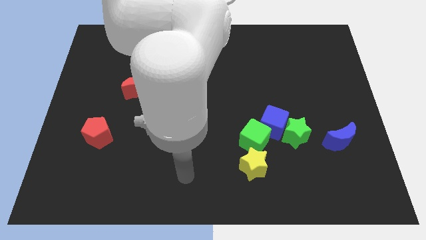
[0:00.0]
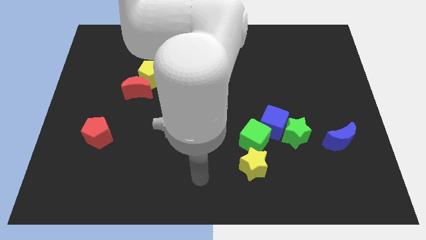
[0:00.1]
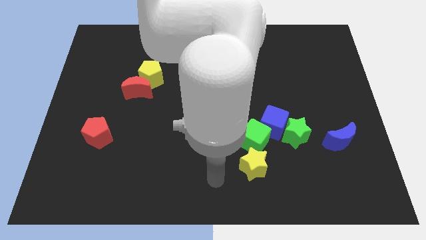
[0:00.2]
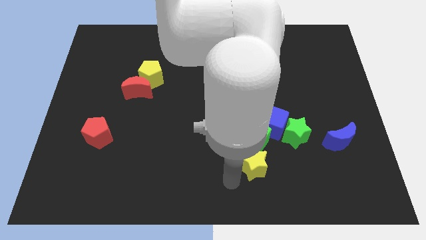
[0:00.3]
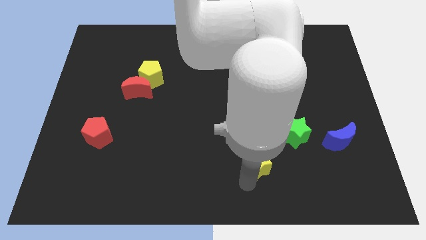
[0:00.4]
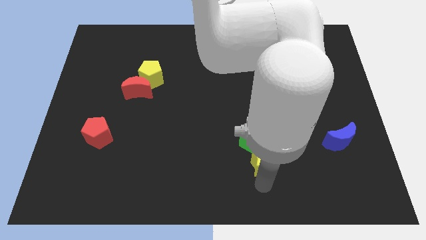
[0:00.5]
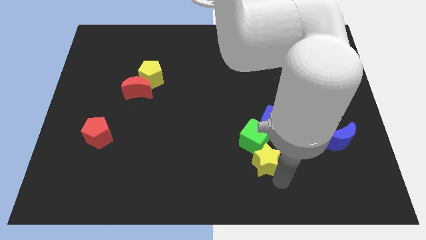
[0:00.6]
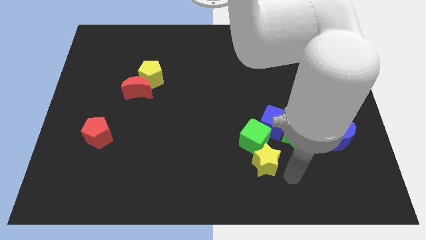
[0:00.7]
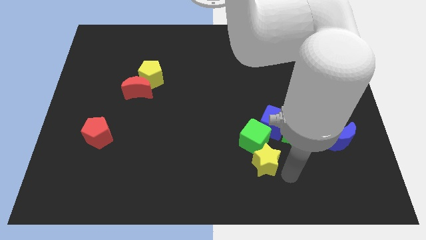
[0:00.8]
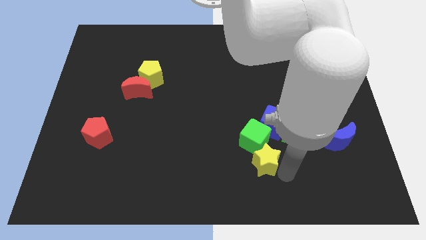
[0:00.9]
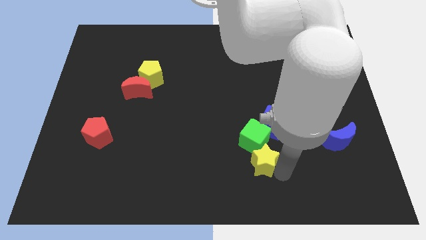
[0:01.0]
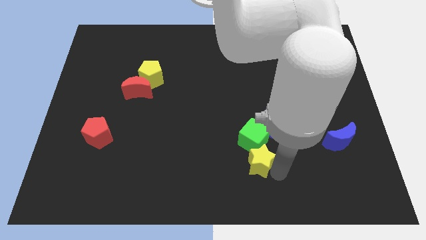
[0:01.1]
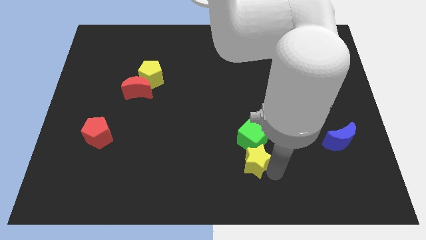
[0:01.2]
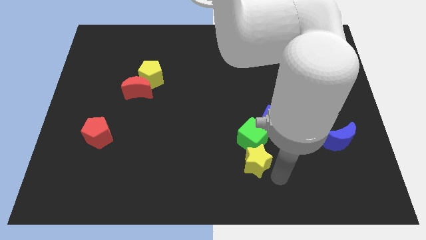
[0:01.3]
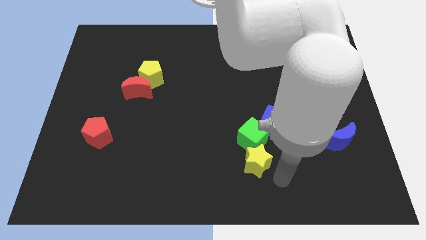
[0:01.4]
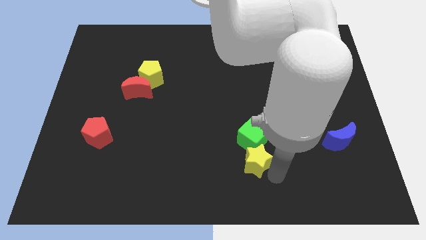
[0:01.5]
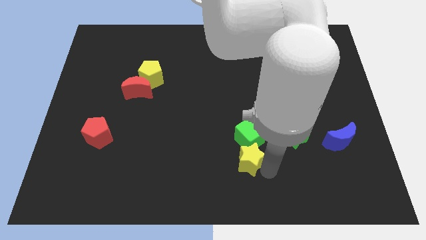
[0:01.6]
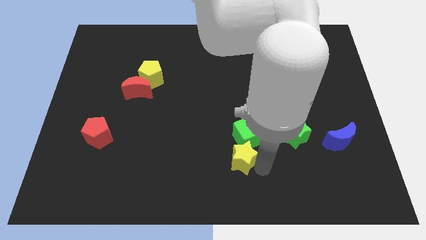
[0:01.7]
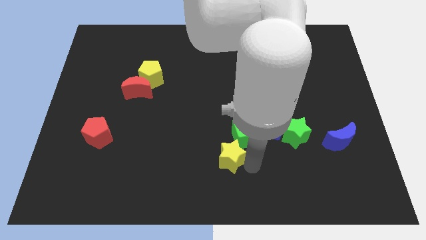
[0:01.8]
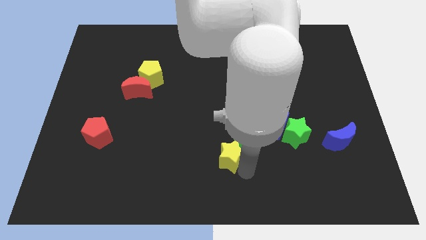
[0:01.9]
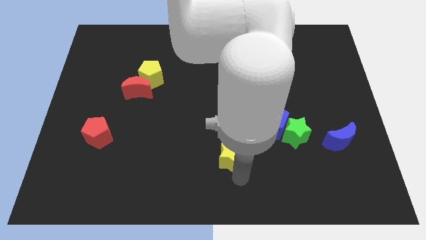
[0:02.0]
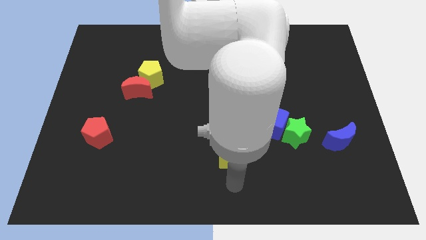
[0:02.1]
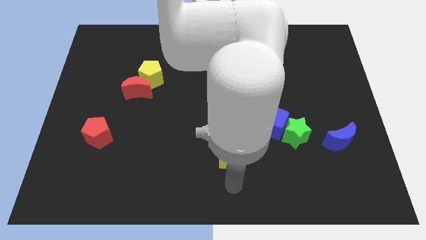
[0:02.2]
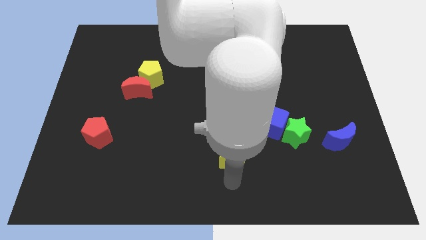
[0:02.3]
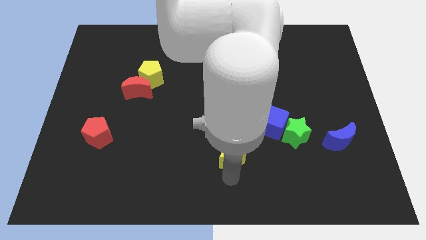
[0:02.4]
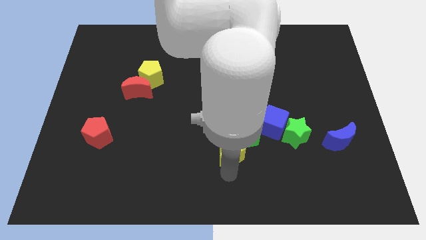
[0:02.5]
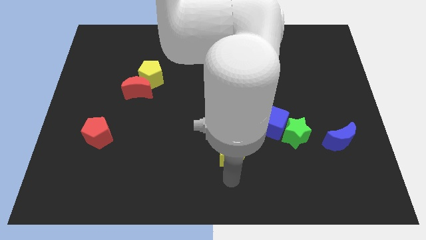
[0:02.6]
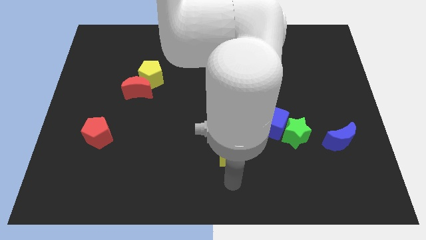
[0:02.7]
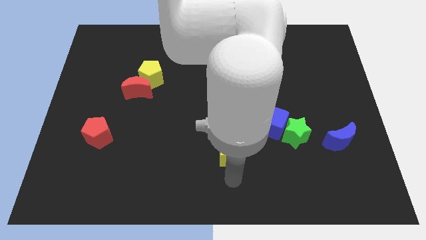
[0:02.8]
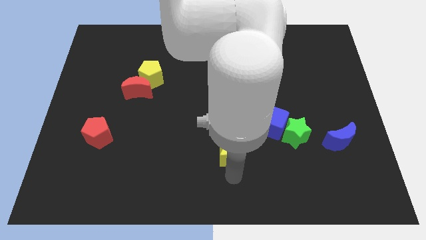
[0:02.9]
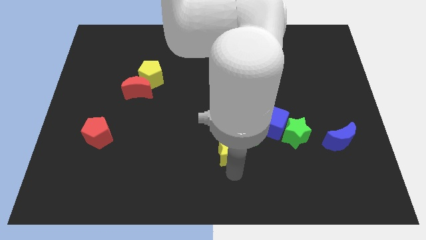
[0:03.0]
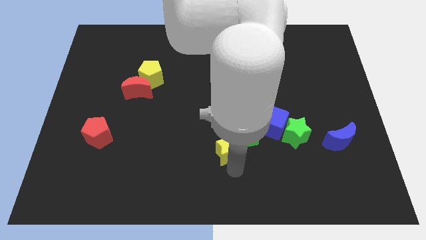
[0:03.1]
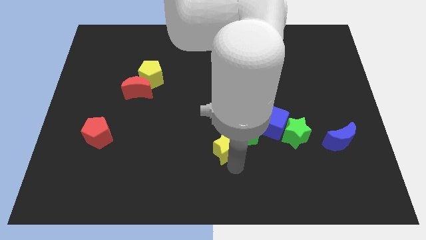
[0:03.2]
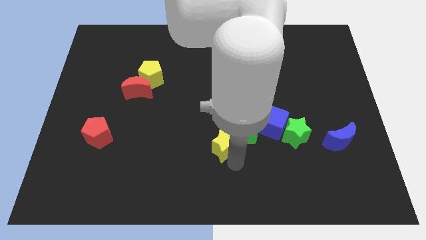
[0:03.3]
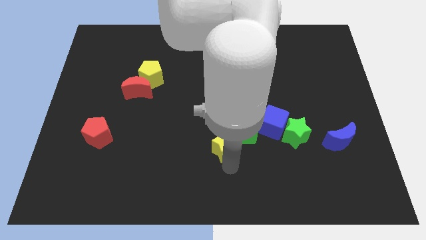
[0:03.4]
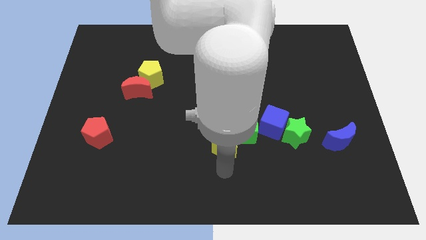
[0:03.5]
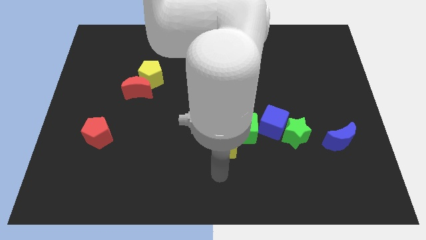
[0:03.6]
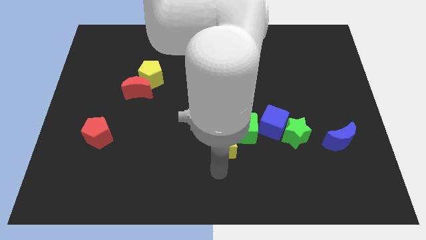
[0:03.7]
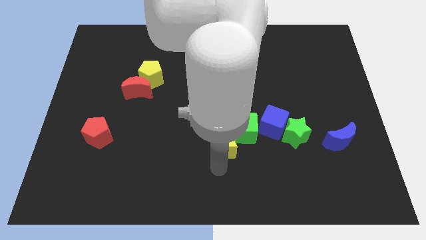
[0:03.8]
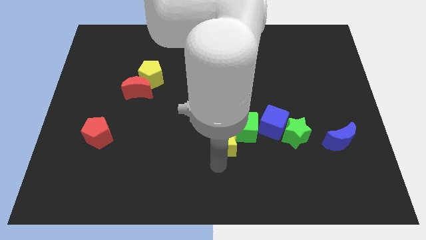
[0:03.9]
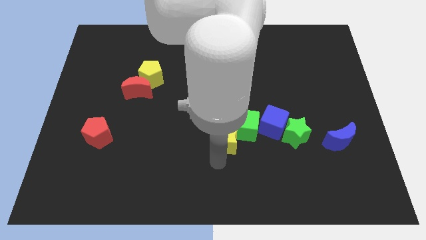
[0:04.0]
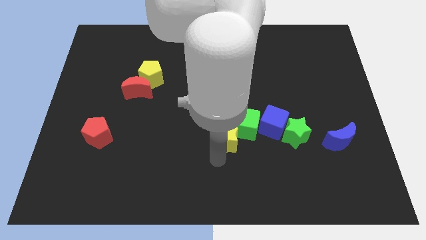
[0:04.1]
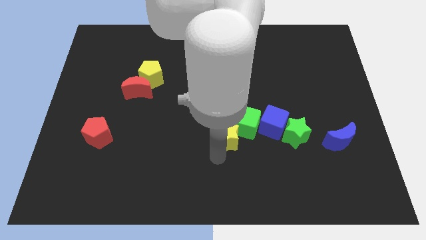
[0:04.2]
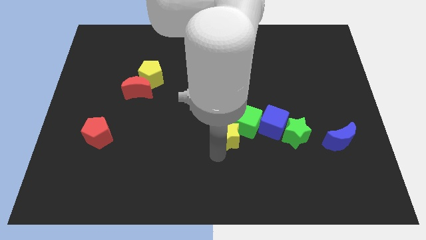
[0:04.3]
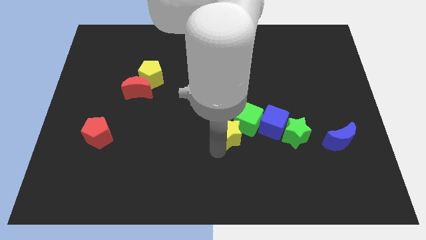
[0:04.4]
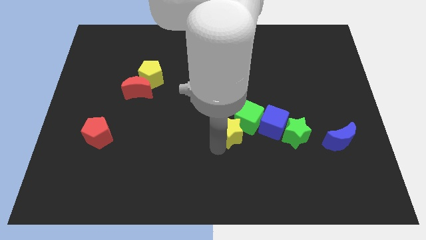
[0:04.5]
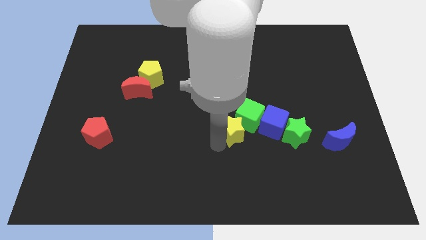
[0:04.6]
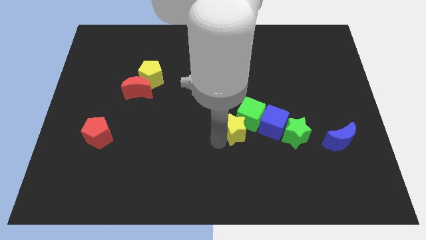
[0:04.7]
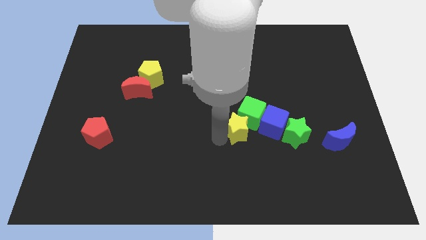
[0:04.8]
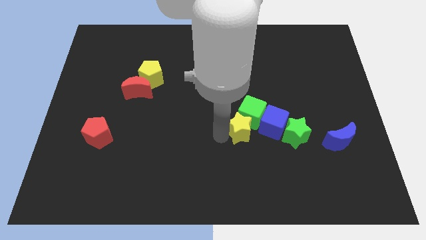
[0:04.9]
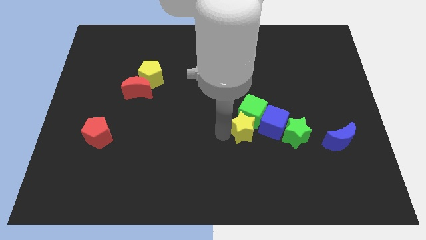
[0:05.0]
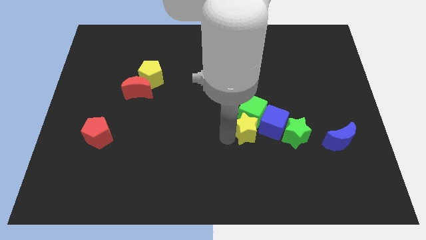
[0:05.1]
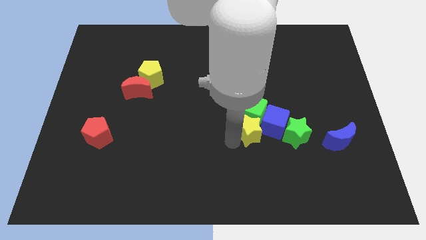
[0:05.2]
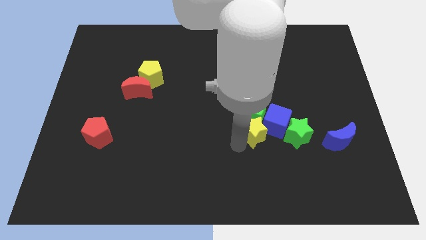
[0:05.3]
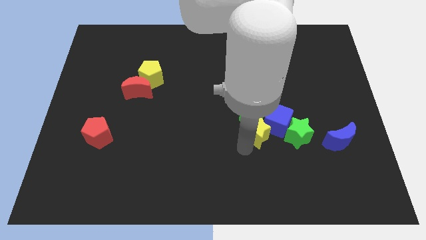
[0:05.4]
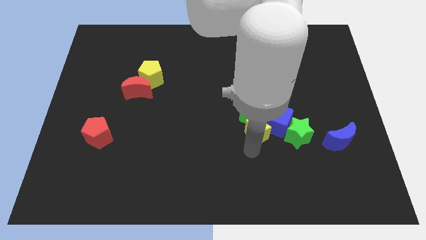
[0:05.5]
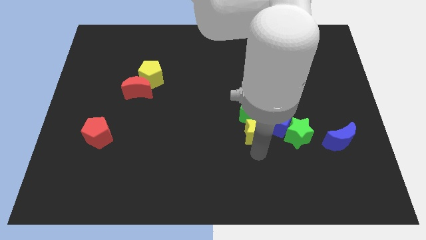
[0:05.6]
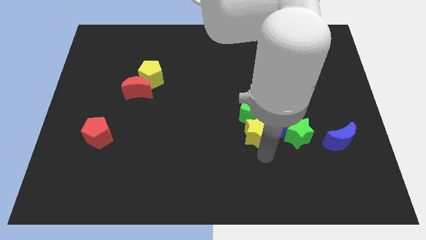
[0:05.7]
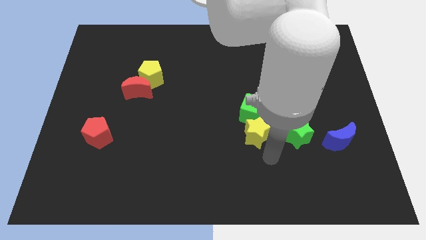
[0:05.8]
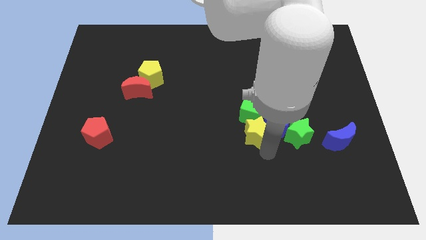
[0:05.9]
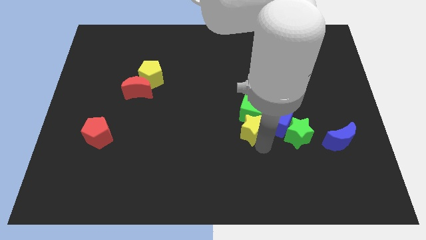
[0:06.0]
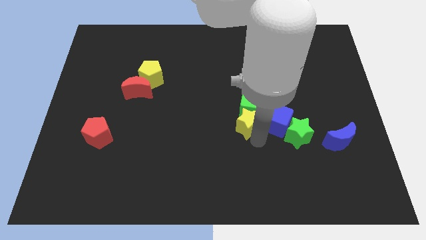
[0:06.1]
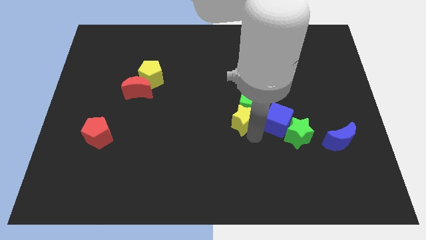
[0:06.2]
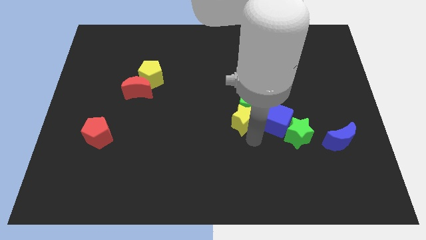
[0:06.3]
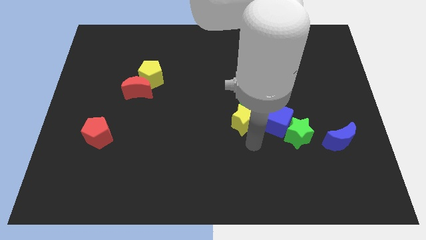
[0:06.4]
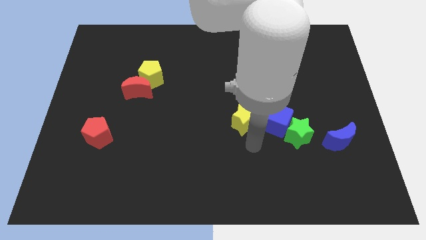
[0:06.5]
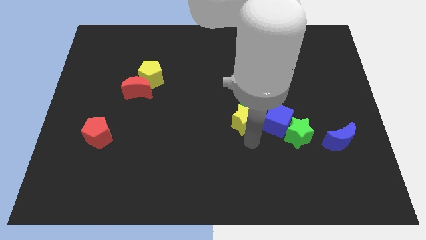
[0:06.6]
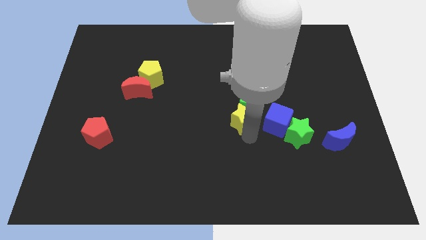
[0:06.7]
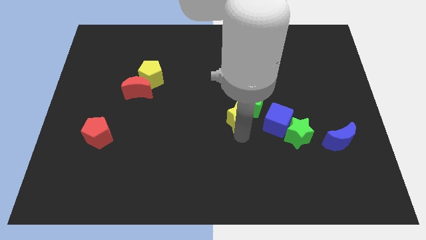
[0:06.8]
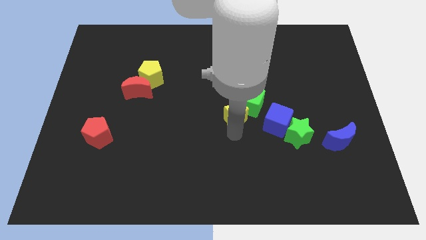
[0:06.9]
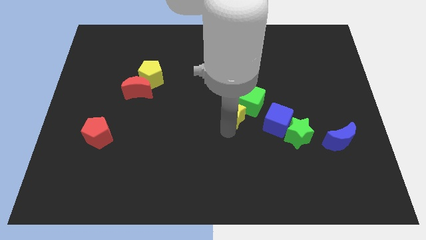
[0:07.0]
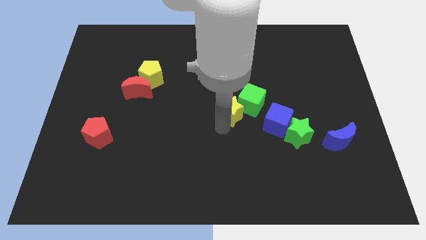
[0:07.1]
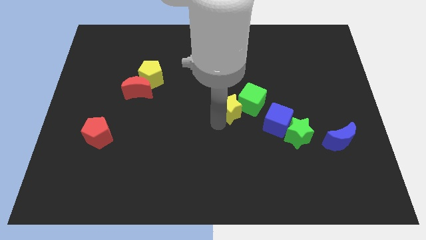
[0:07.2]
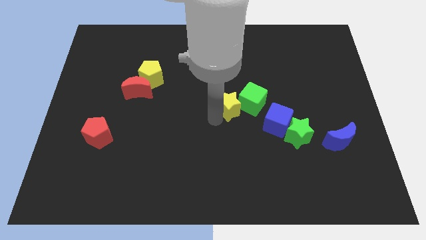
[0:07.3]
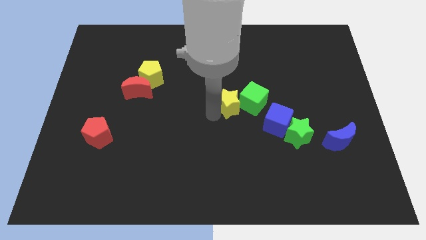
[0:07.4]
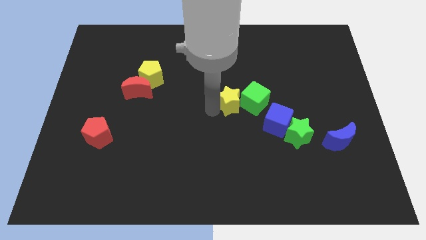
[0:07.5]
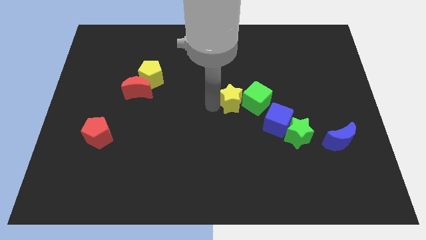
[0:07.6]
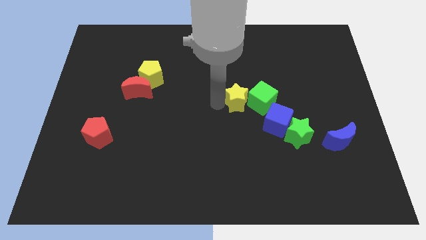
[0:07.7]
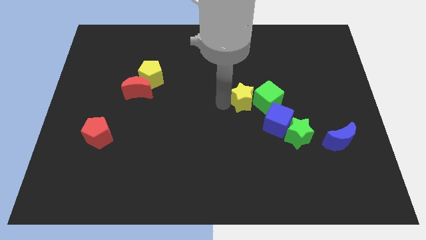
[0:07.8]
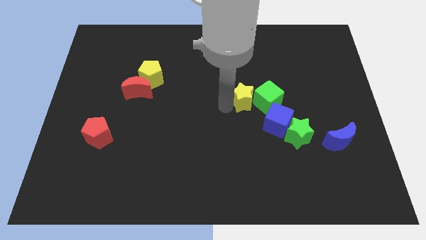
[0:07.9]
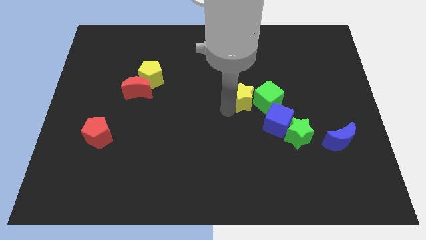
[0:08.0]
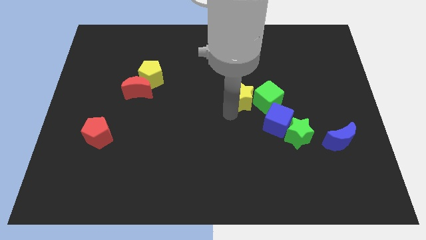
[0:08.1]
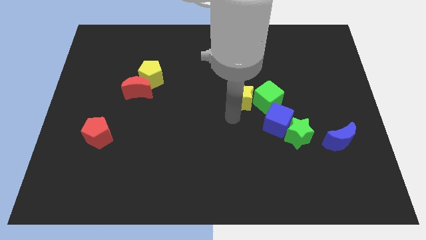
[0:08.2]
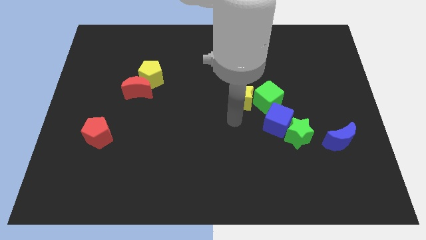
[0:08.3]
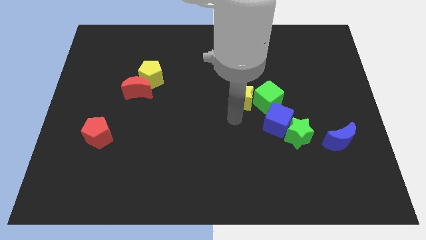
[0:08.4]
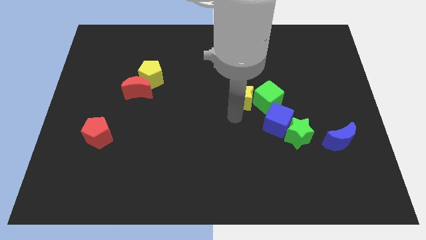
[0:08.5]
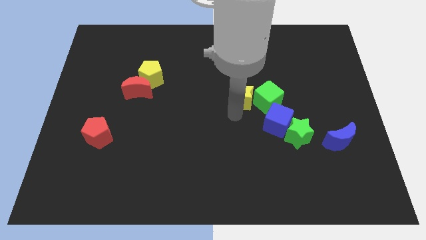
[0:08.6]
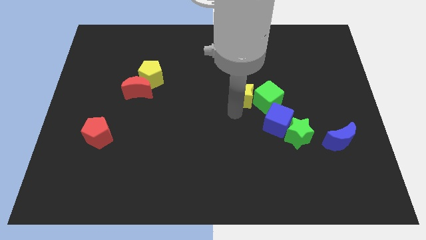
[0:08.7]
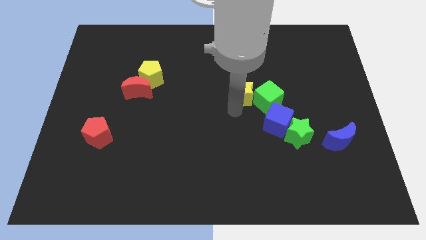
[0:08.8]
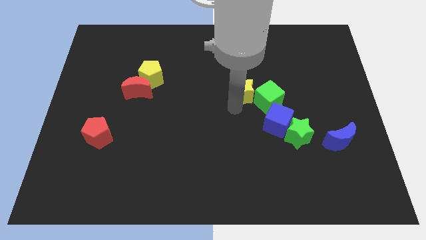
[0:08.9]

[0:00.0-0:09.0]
slide the yellow star upwards
